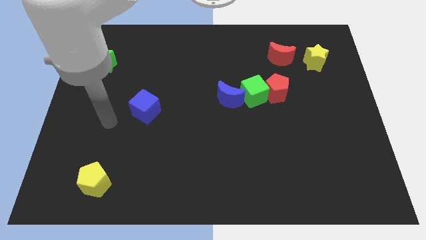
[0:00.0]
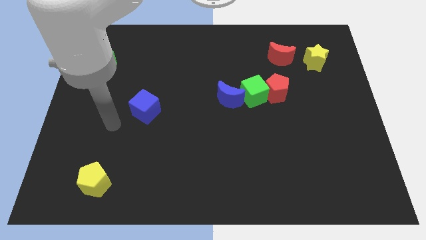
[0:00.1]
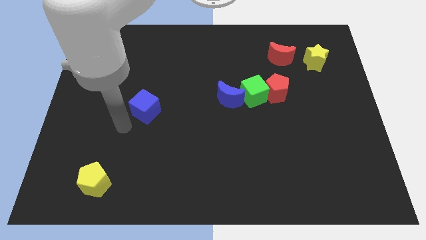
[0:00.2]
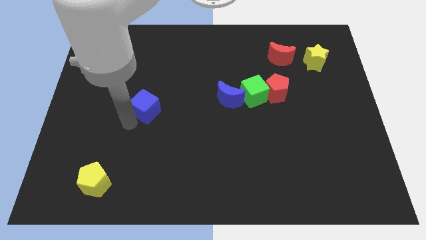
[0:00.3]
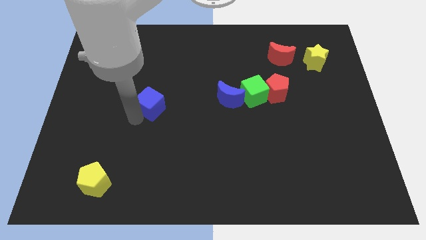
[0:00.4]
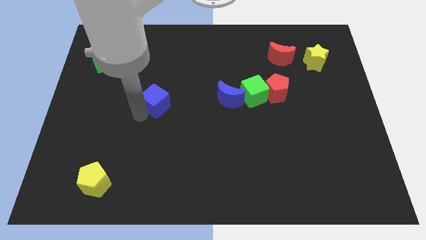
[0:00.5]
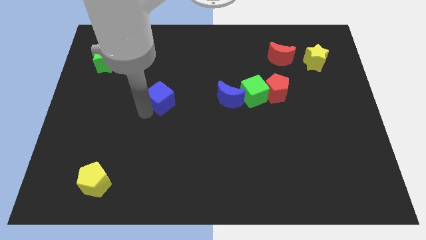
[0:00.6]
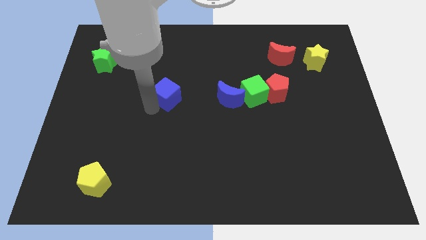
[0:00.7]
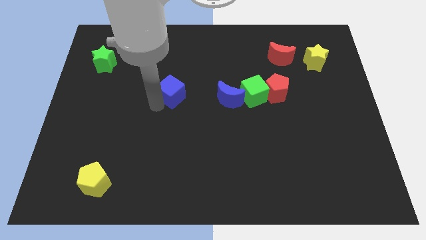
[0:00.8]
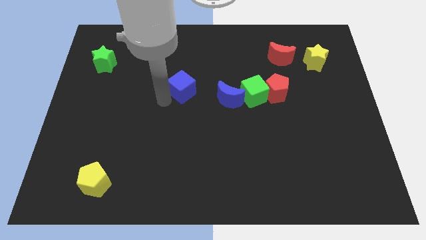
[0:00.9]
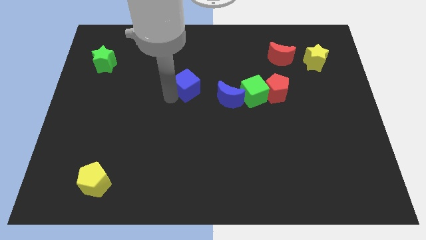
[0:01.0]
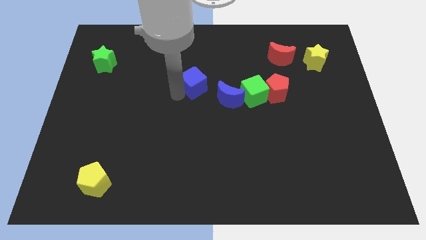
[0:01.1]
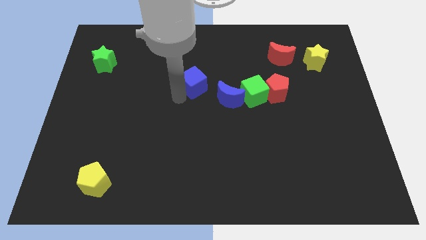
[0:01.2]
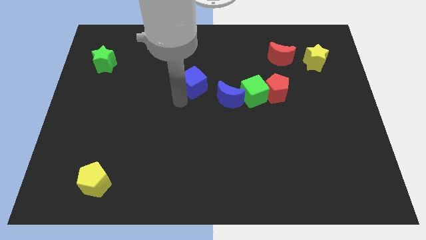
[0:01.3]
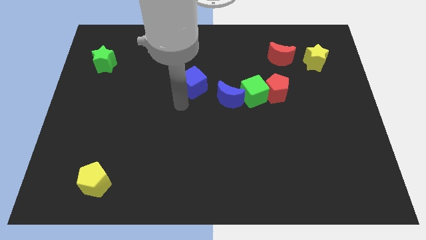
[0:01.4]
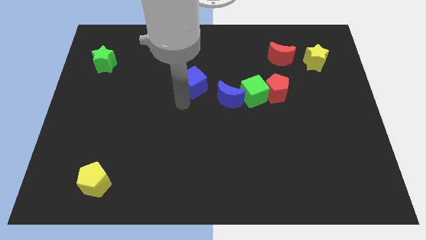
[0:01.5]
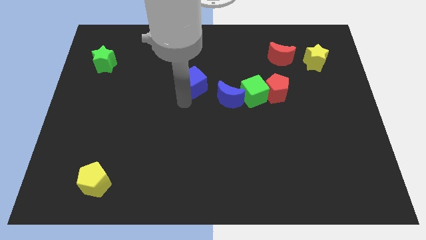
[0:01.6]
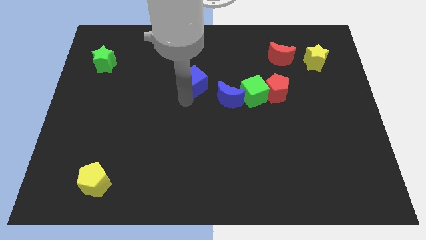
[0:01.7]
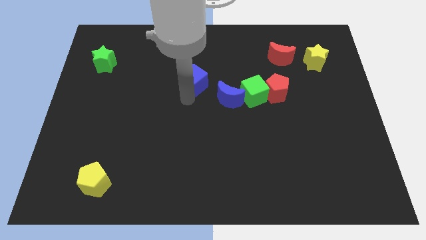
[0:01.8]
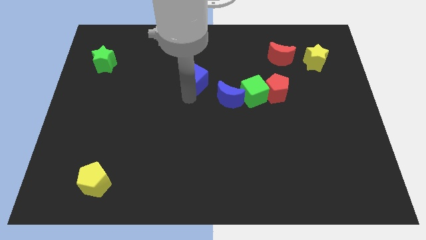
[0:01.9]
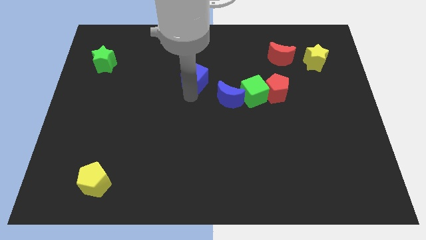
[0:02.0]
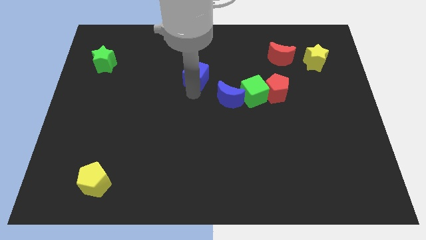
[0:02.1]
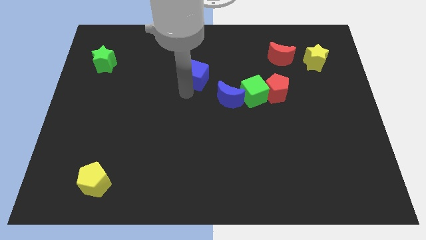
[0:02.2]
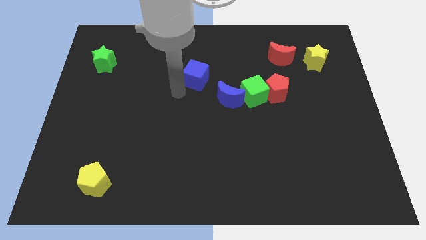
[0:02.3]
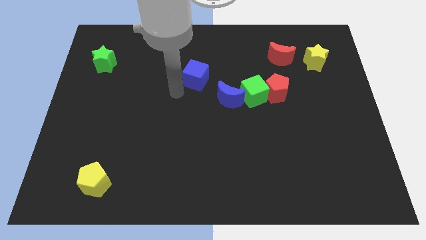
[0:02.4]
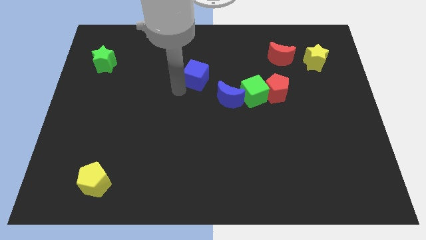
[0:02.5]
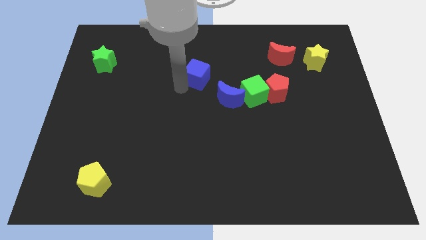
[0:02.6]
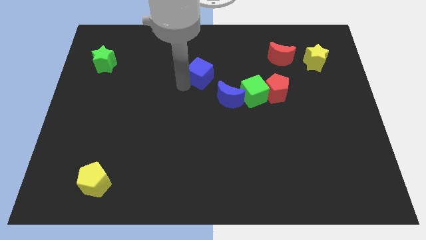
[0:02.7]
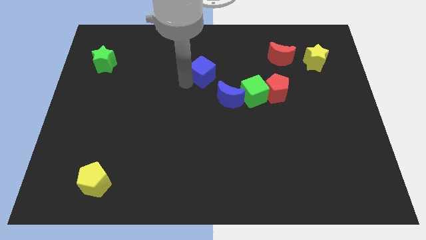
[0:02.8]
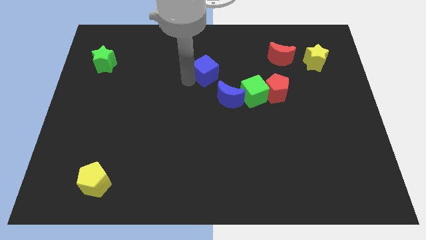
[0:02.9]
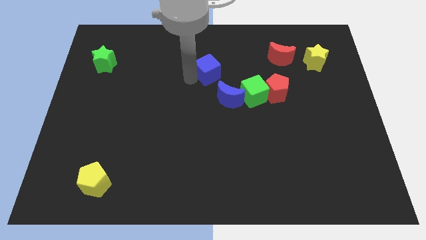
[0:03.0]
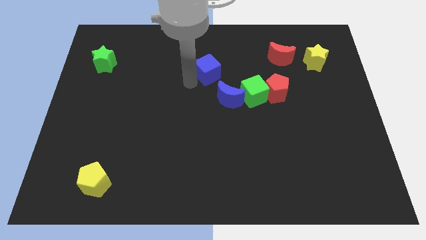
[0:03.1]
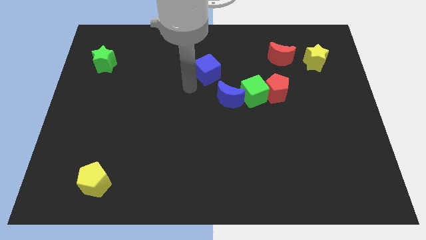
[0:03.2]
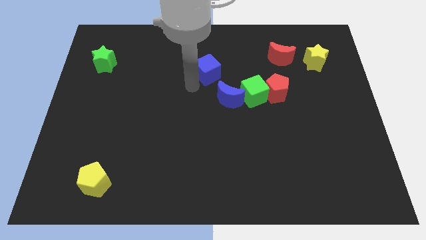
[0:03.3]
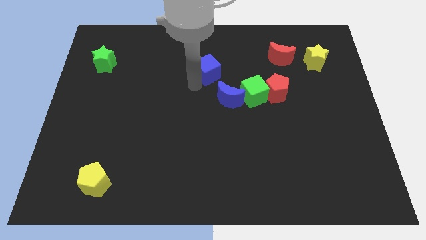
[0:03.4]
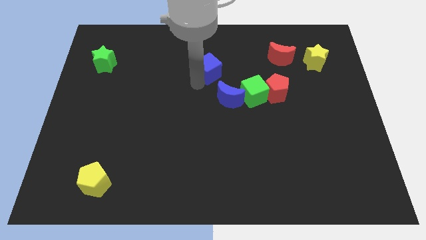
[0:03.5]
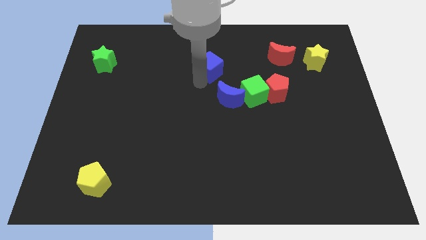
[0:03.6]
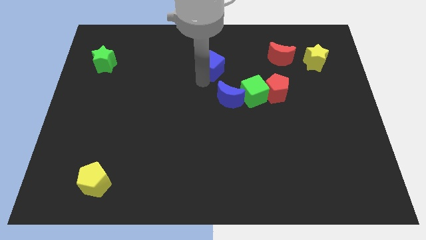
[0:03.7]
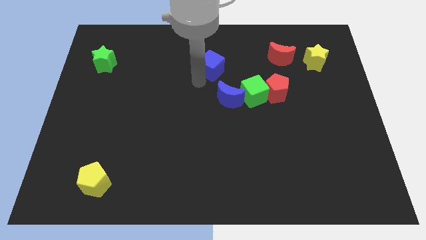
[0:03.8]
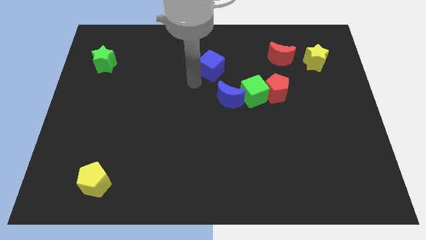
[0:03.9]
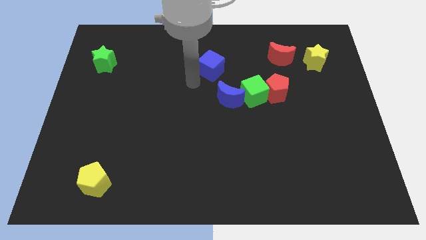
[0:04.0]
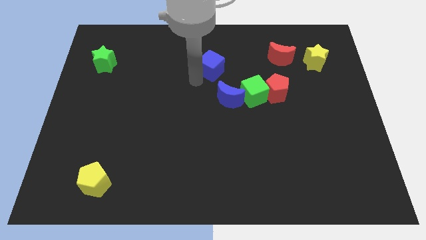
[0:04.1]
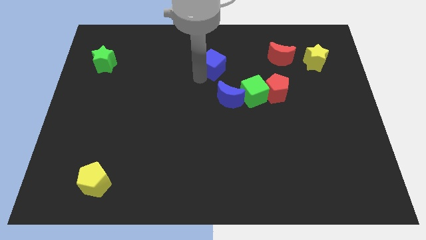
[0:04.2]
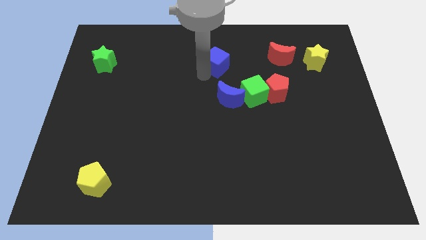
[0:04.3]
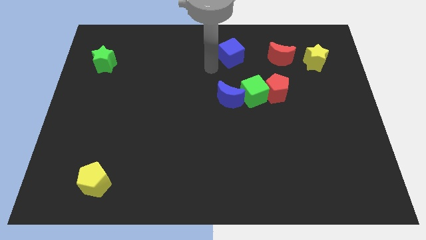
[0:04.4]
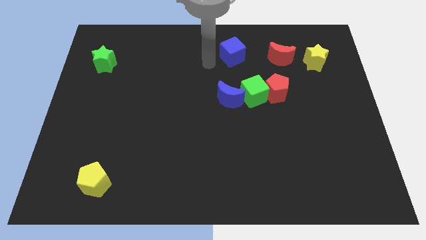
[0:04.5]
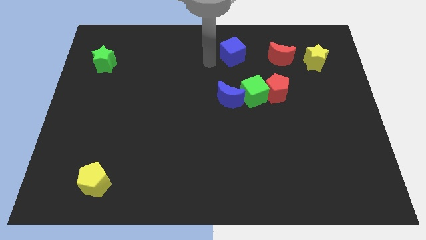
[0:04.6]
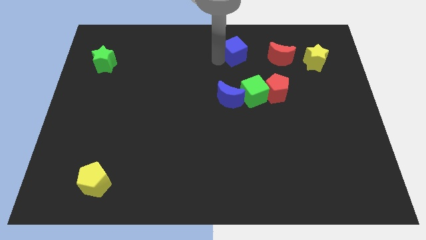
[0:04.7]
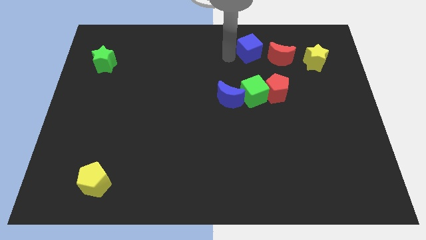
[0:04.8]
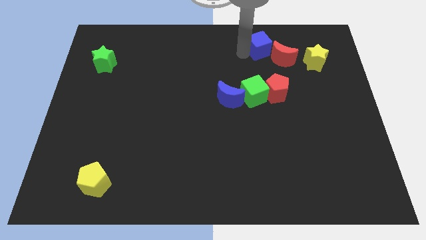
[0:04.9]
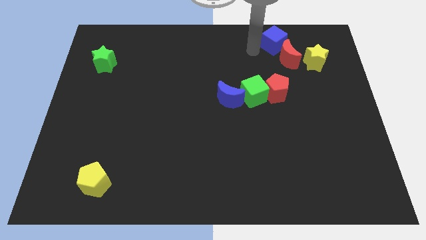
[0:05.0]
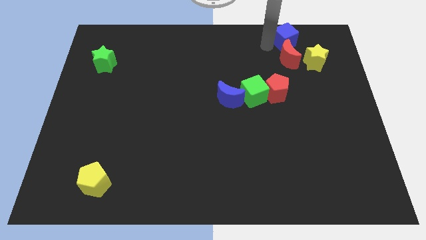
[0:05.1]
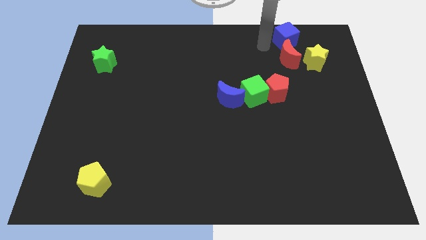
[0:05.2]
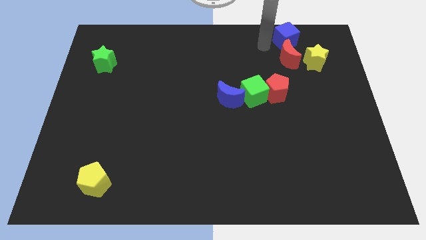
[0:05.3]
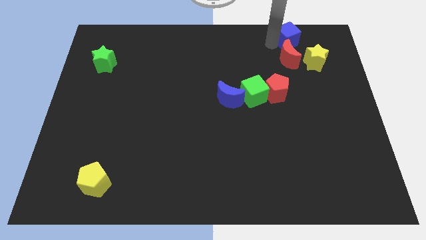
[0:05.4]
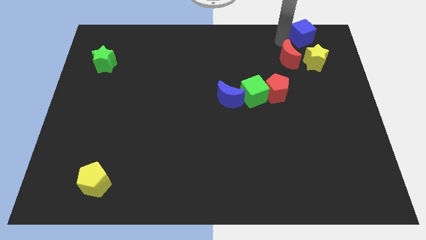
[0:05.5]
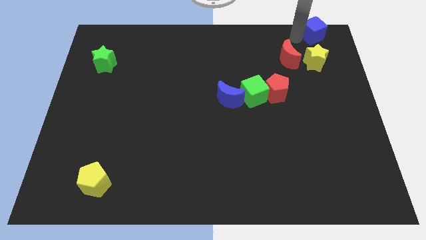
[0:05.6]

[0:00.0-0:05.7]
put the blue cube to the top right of the board

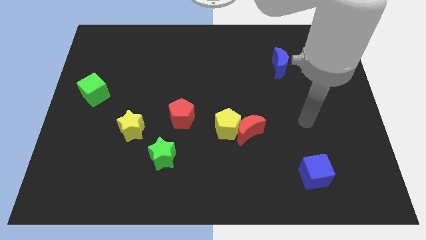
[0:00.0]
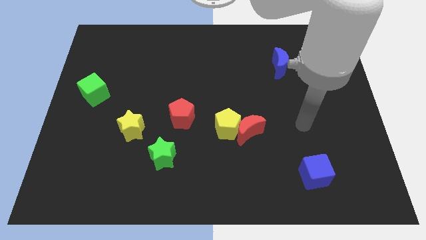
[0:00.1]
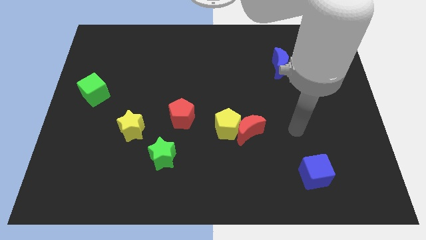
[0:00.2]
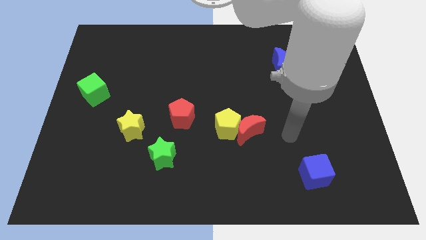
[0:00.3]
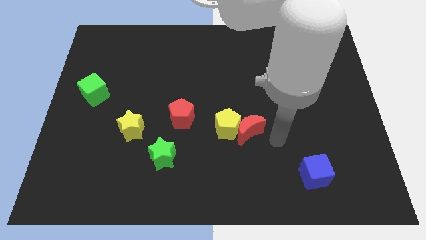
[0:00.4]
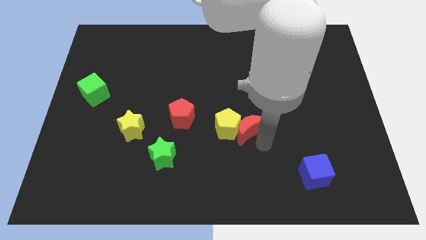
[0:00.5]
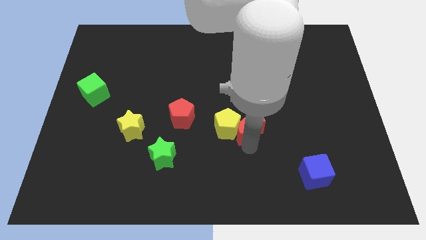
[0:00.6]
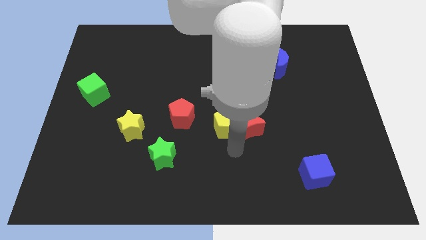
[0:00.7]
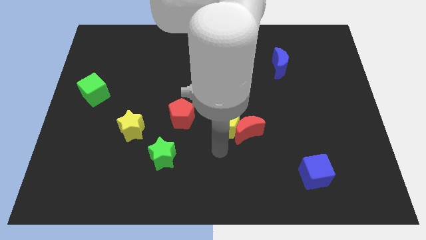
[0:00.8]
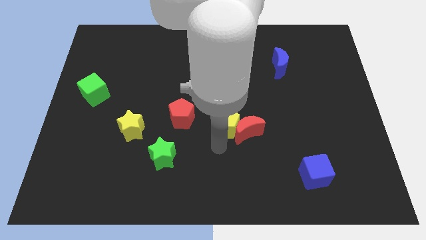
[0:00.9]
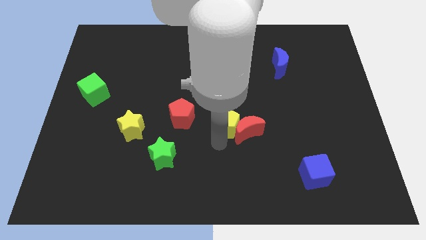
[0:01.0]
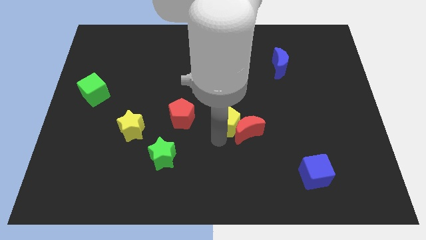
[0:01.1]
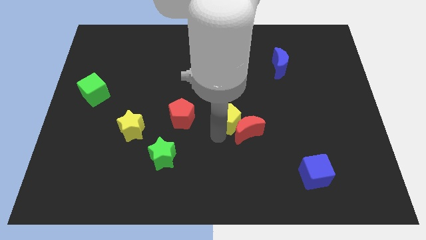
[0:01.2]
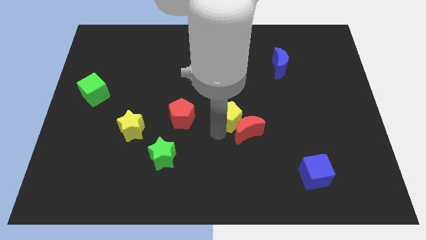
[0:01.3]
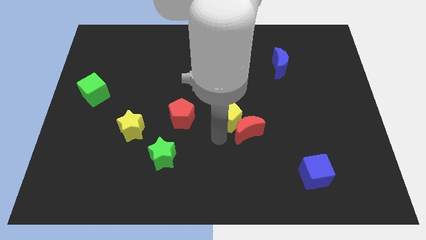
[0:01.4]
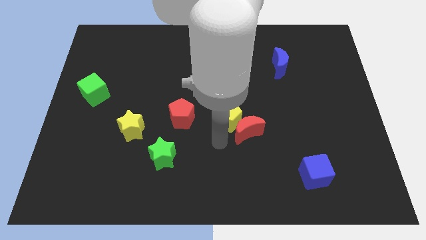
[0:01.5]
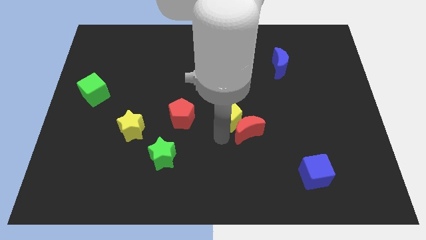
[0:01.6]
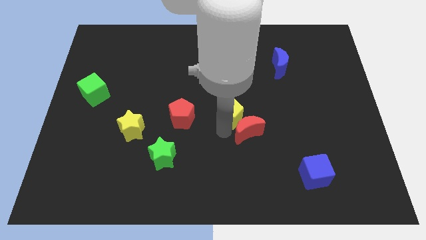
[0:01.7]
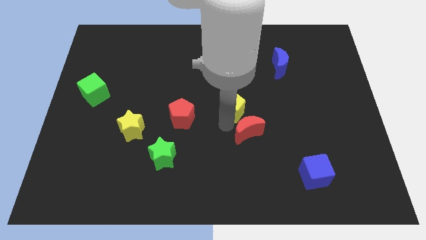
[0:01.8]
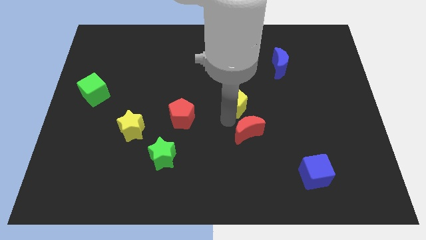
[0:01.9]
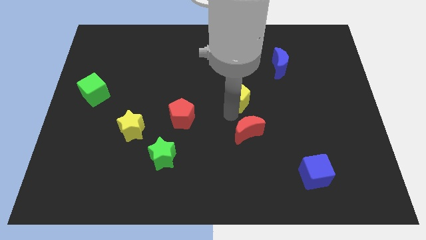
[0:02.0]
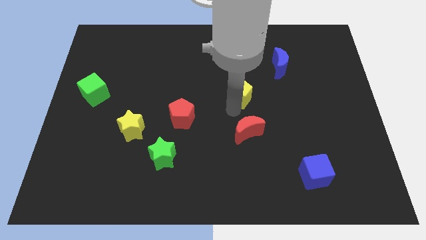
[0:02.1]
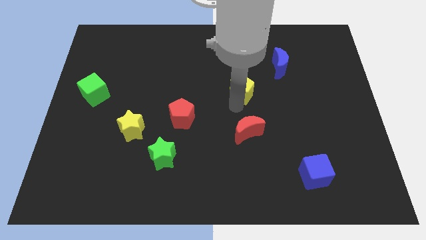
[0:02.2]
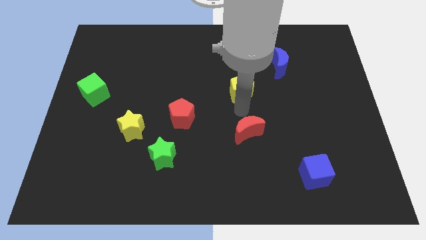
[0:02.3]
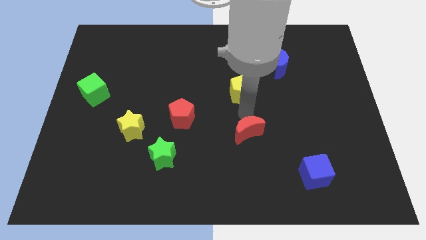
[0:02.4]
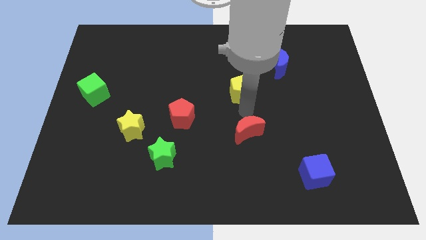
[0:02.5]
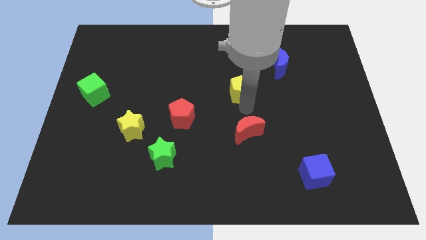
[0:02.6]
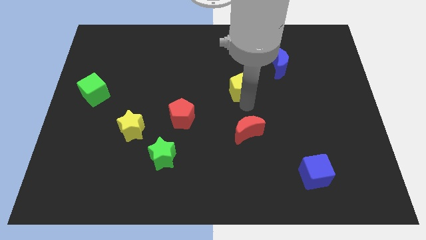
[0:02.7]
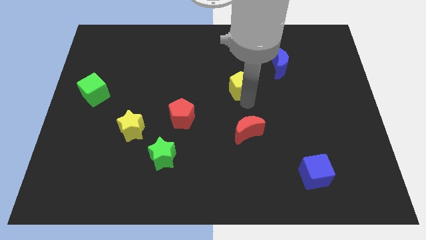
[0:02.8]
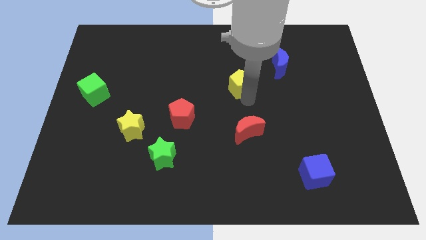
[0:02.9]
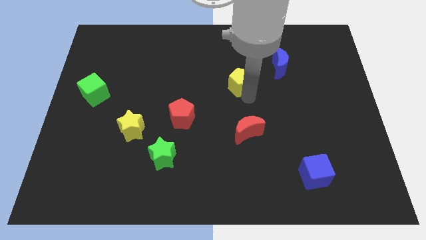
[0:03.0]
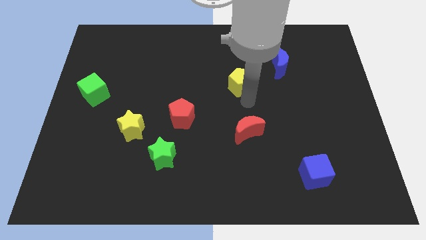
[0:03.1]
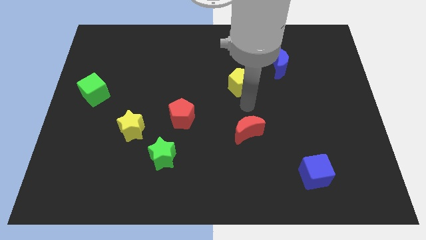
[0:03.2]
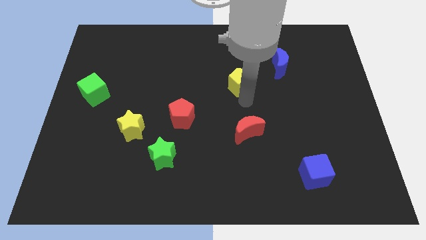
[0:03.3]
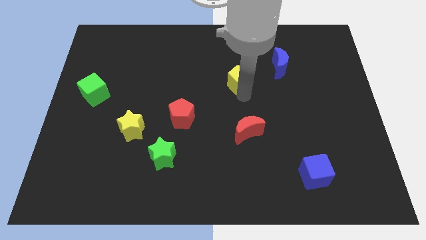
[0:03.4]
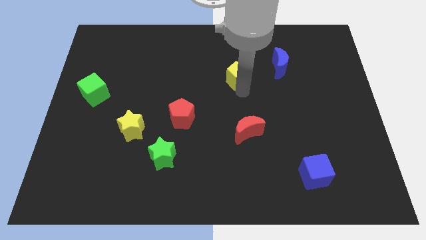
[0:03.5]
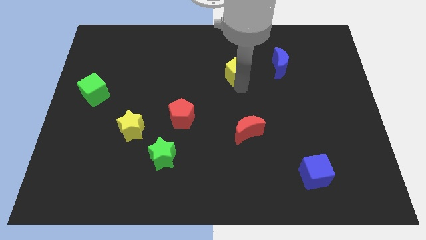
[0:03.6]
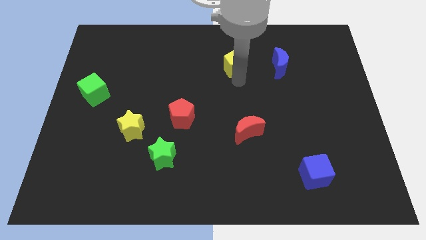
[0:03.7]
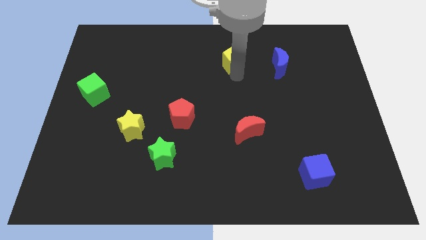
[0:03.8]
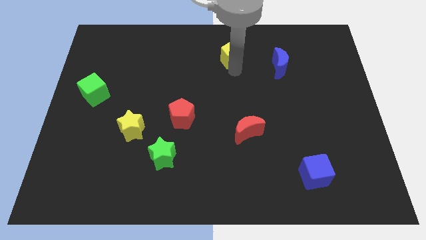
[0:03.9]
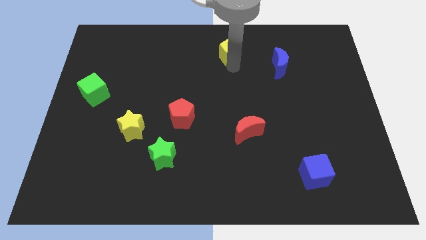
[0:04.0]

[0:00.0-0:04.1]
slide the yellow pentagon to the top
